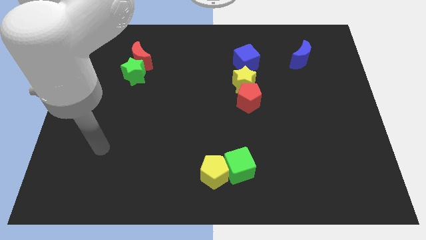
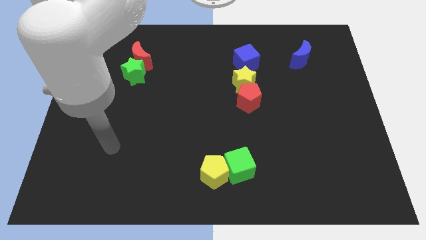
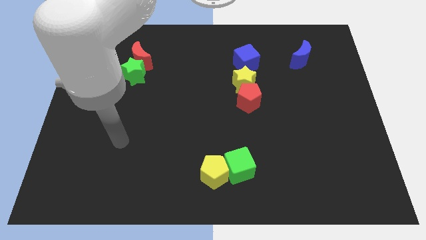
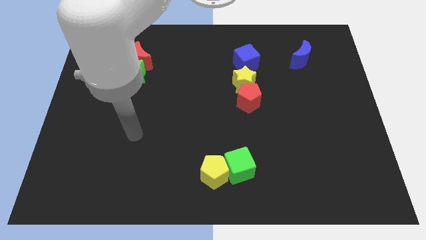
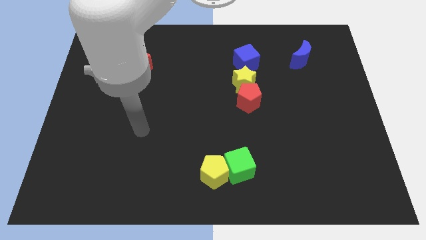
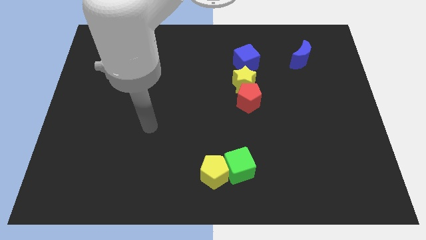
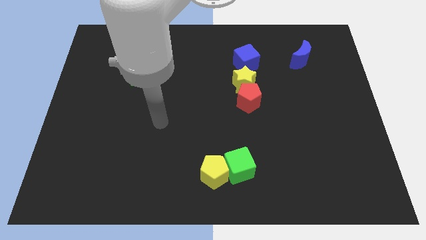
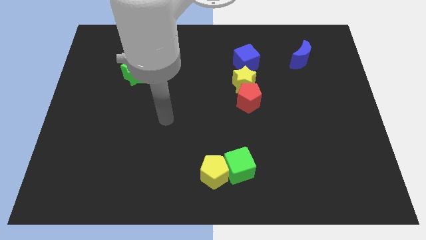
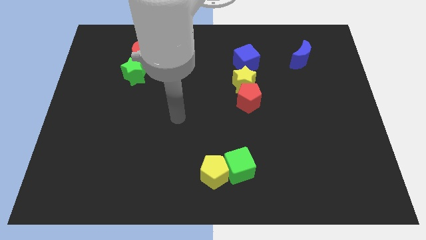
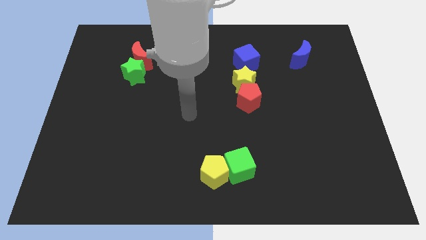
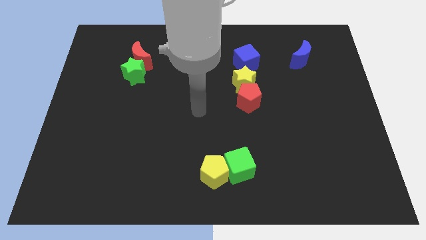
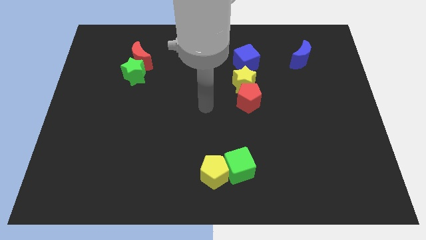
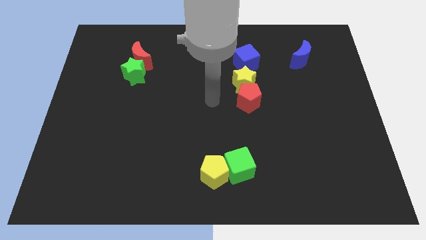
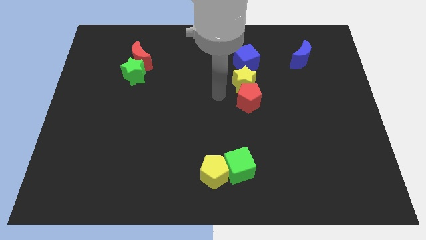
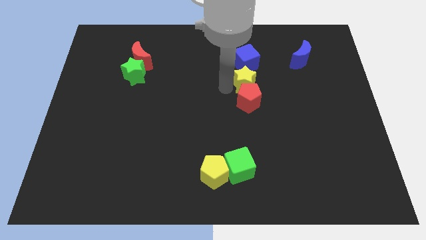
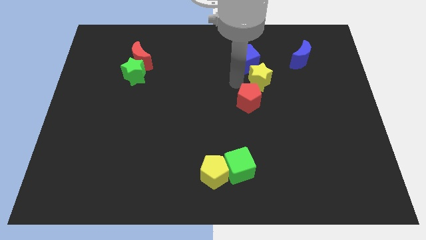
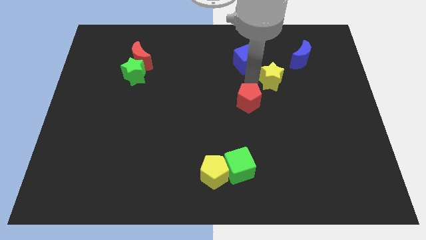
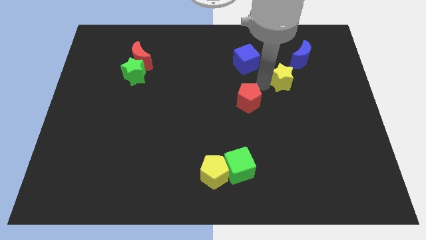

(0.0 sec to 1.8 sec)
move the red pentagon away from the yellow star

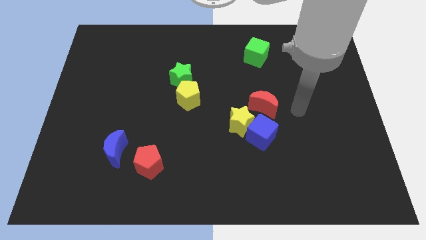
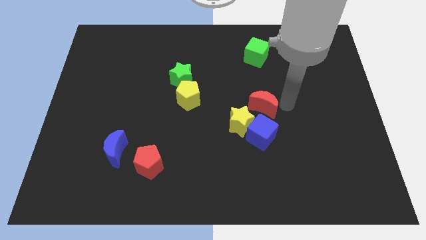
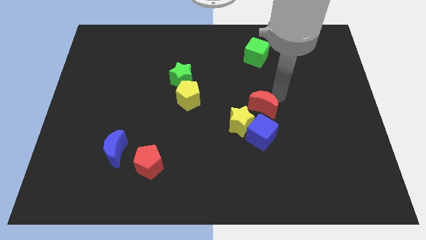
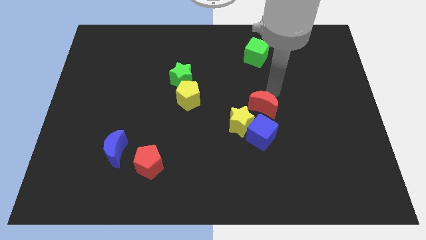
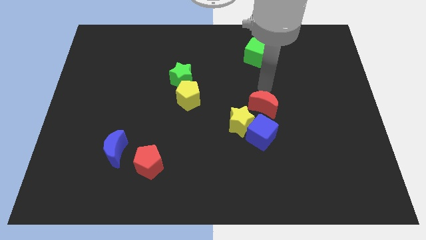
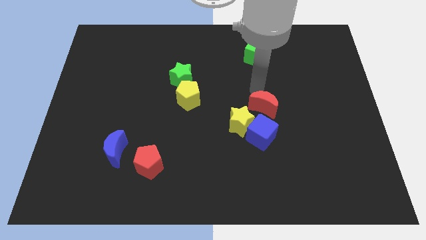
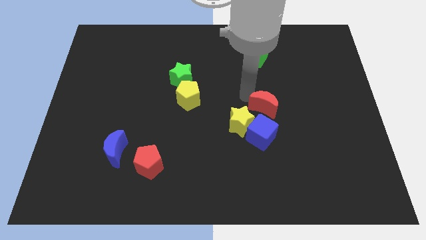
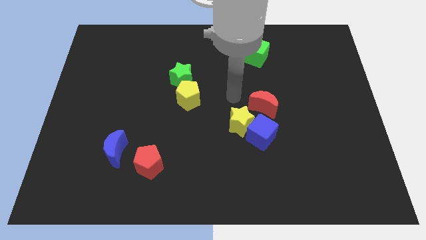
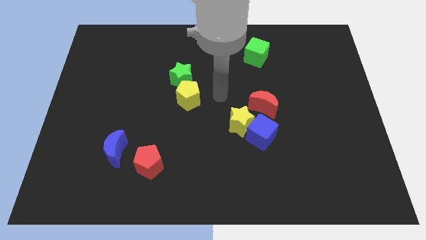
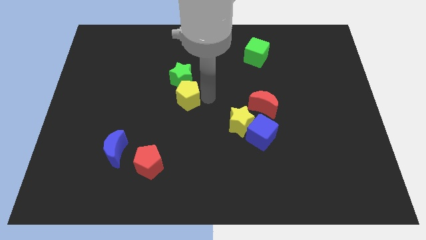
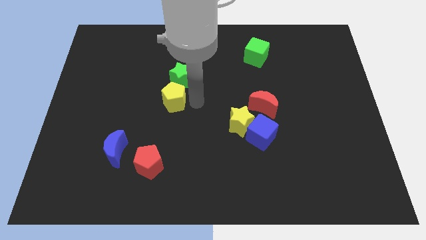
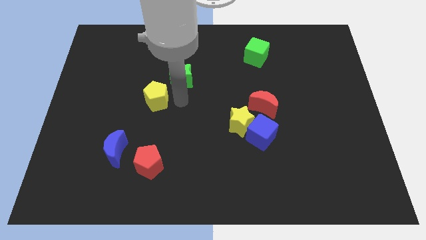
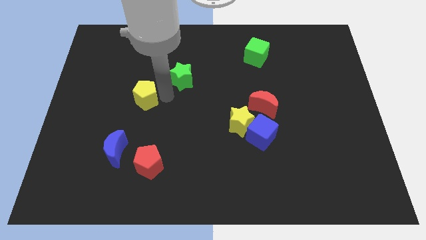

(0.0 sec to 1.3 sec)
separate the green star from the yellow pentagon

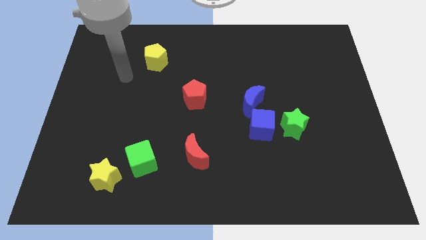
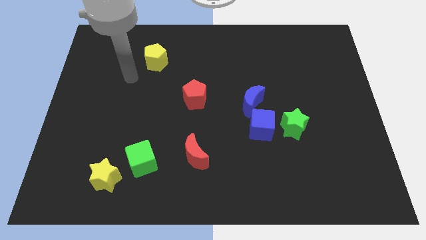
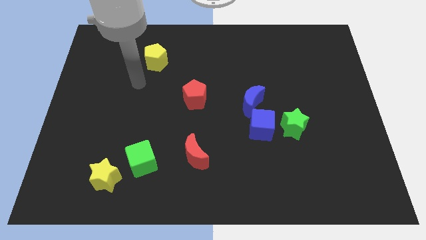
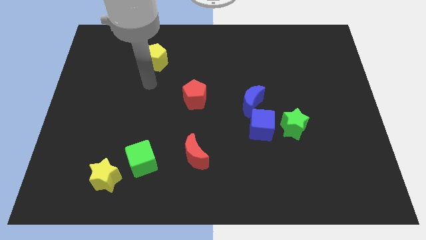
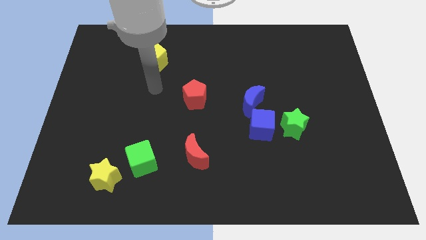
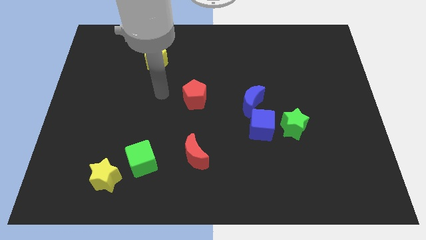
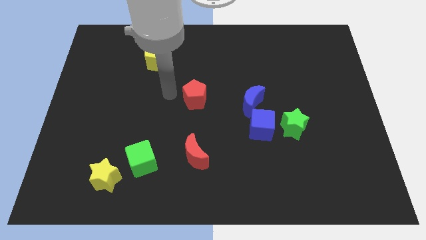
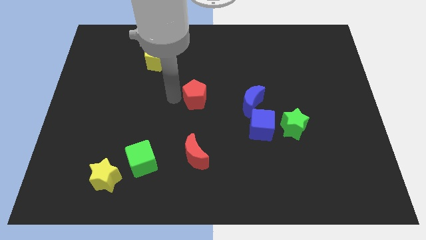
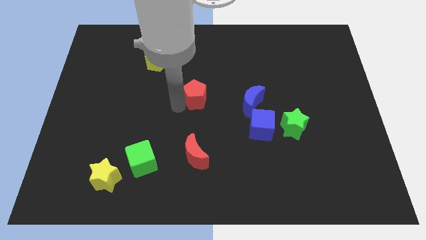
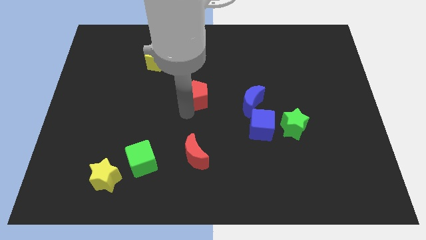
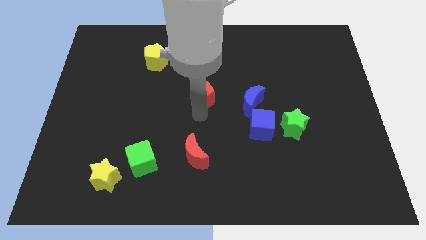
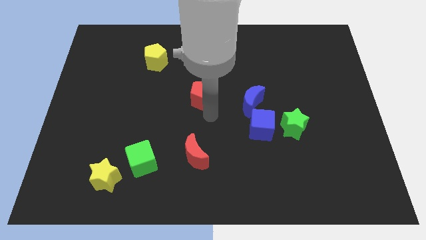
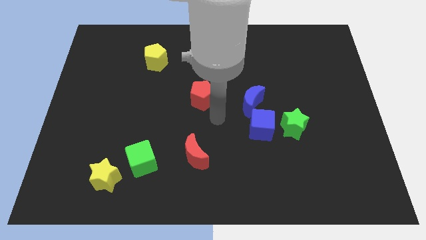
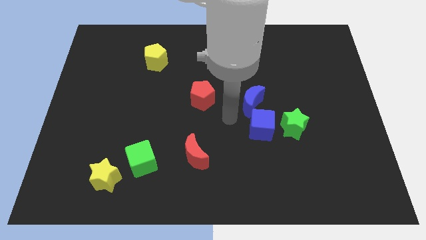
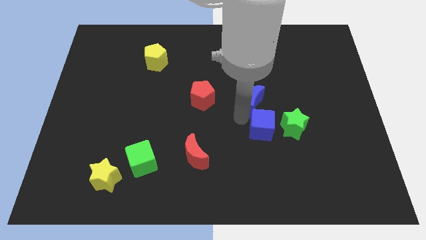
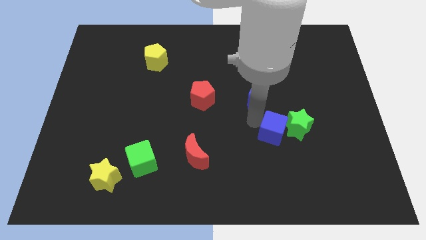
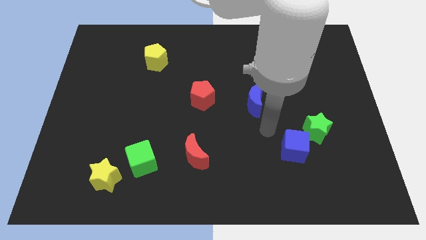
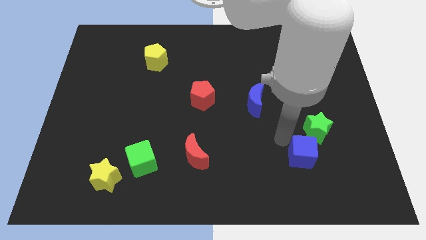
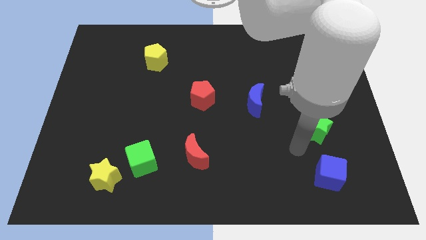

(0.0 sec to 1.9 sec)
move the green star away from the blue cube

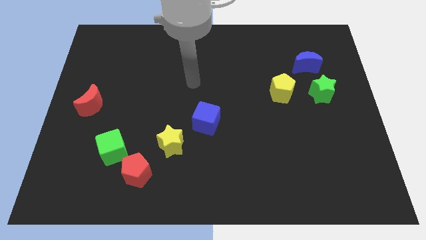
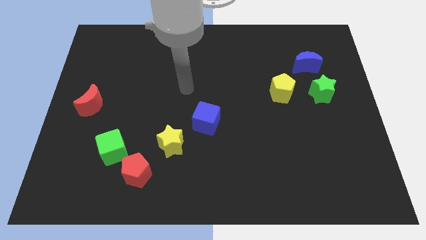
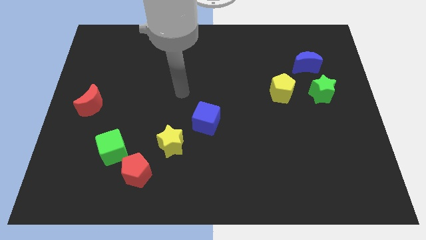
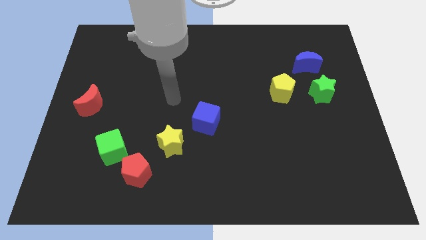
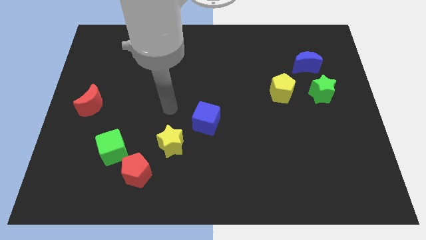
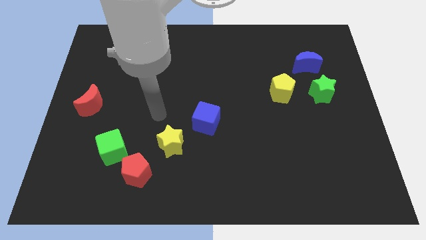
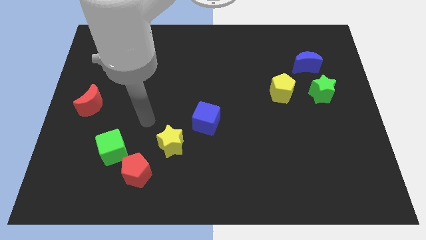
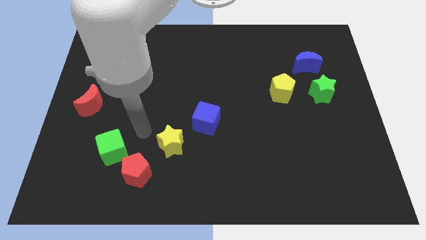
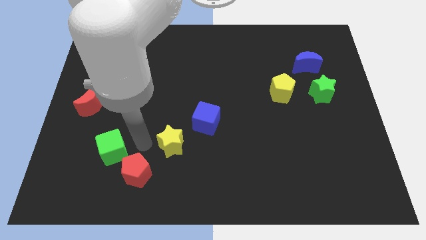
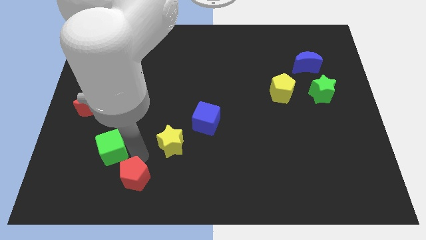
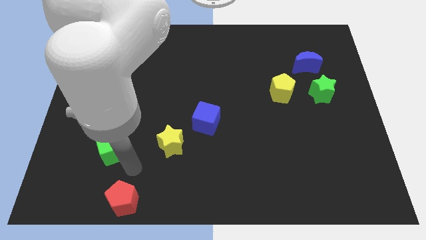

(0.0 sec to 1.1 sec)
separate the green cube from the red pentagon

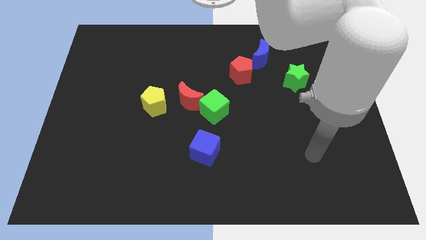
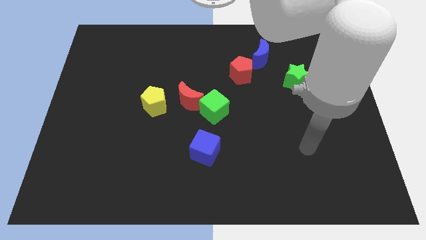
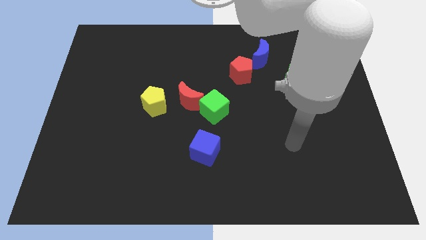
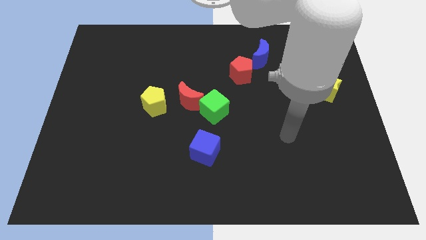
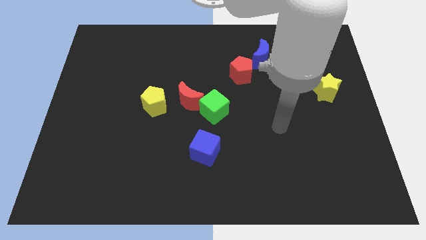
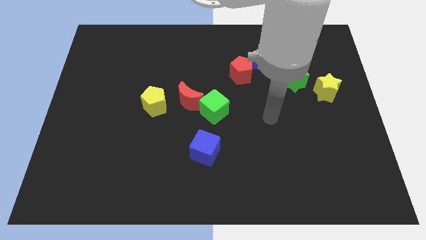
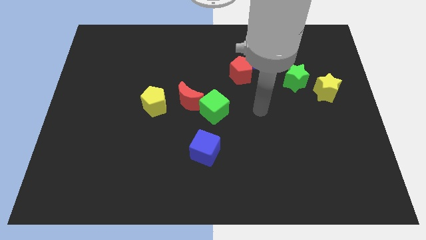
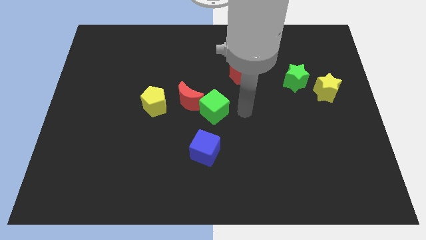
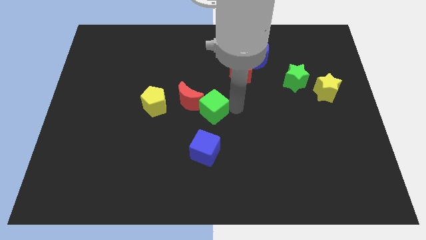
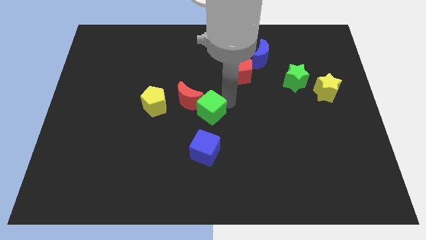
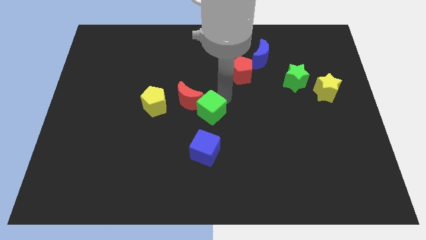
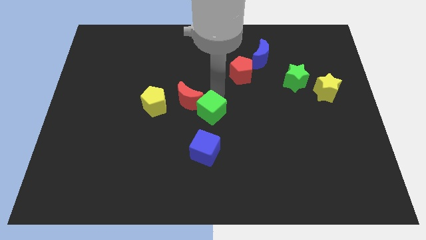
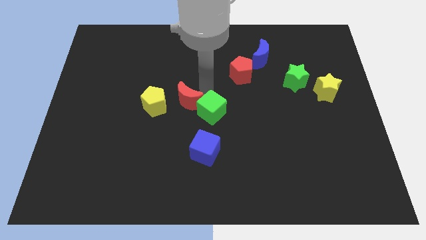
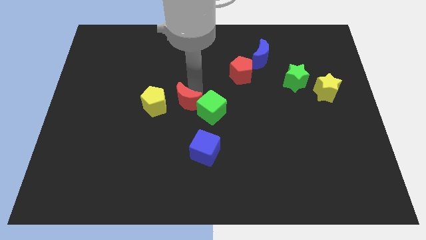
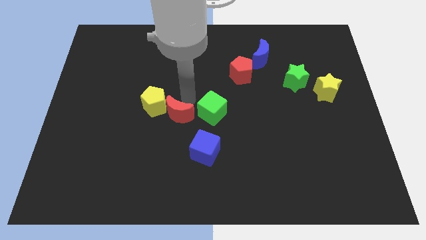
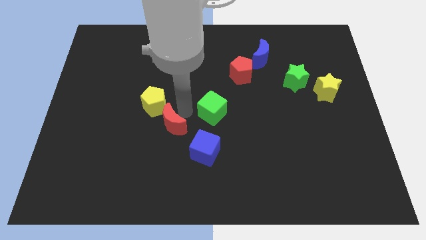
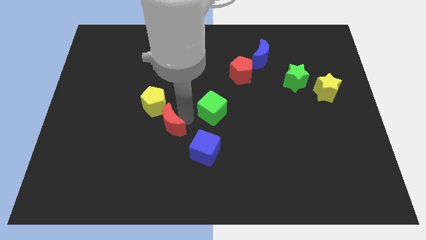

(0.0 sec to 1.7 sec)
separate the green cube from the red moon

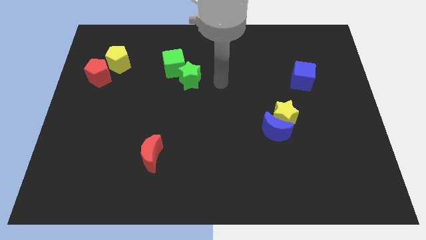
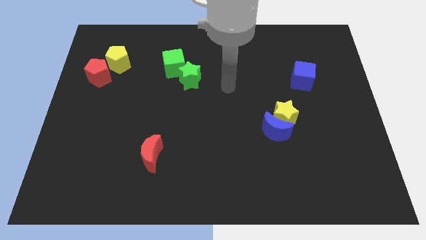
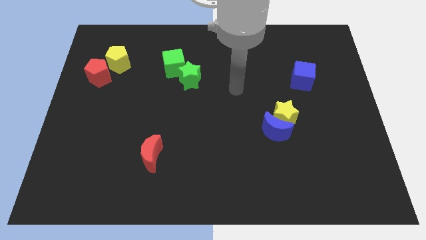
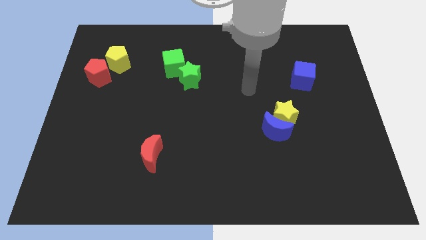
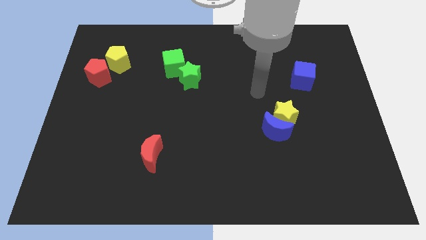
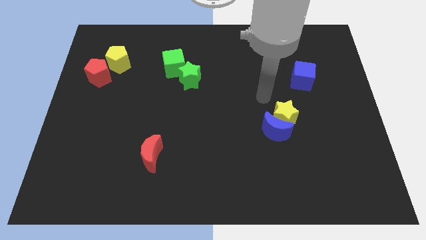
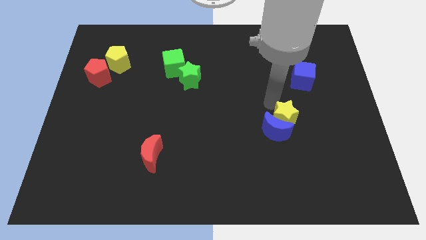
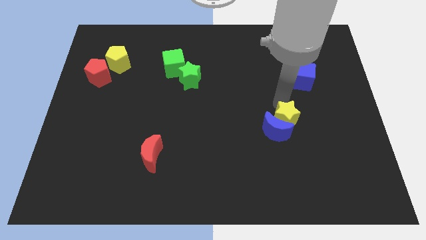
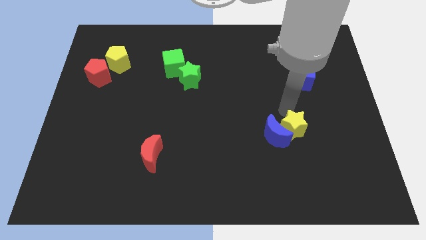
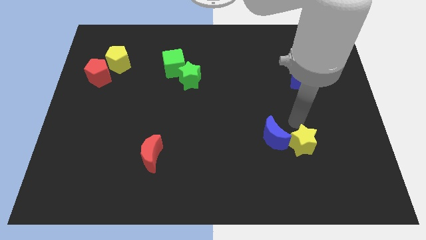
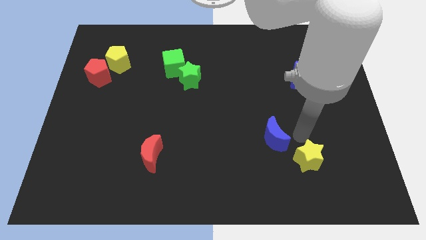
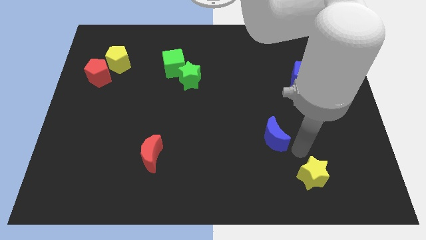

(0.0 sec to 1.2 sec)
move the blue moon away from the yellow star

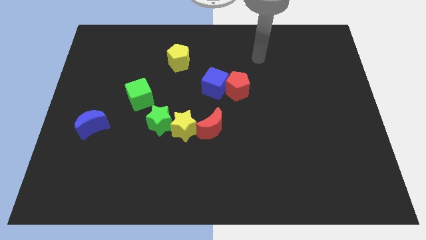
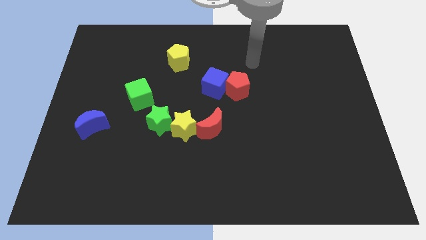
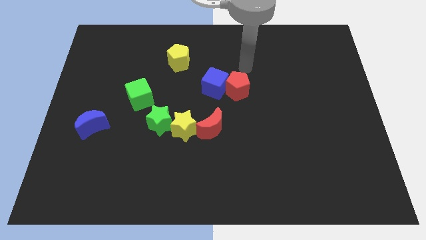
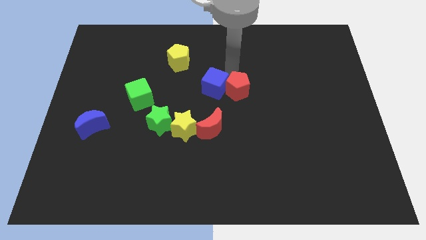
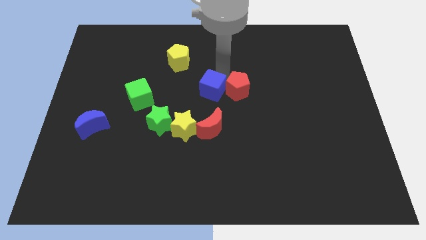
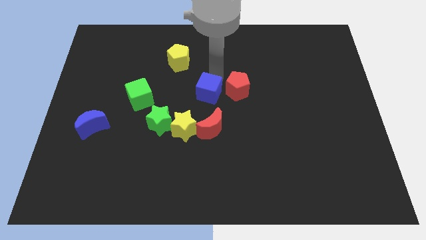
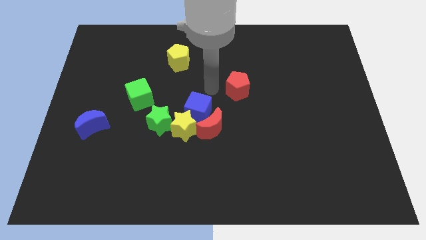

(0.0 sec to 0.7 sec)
move the red pentagon away from the blue cube
